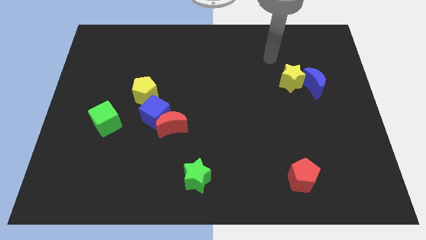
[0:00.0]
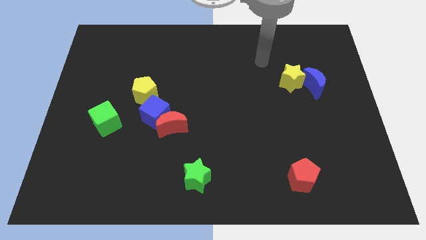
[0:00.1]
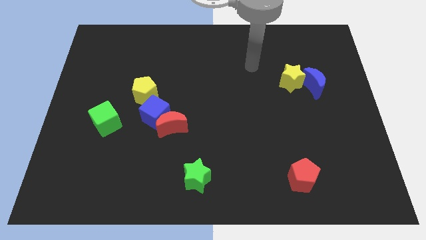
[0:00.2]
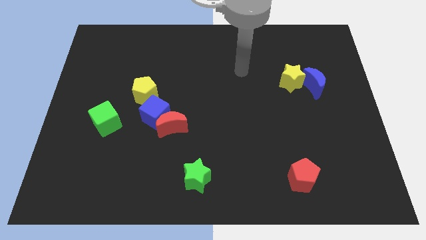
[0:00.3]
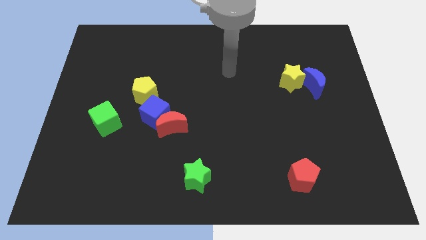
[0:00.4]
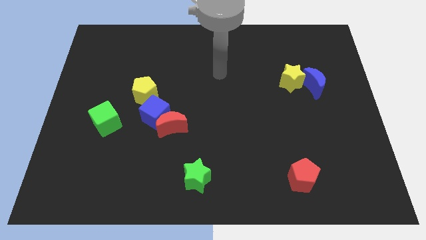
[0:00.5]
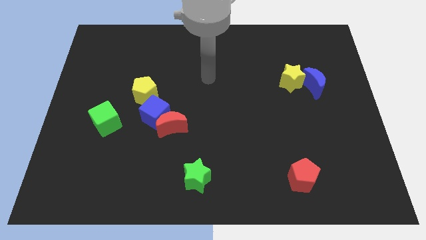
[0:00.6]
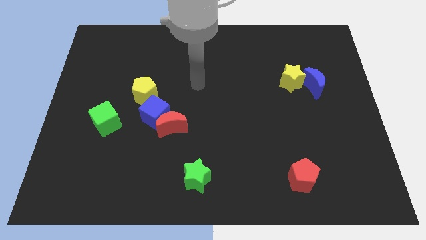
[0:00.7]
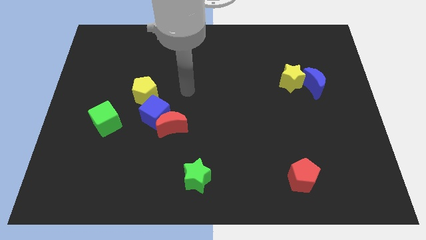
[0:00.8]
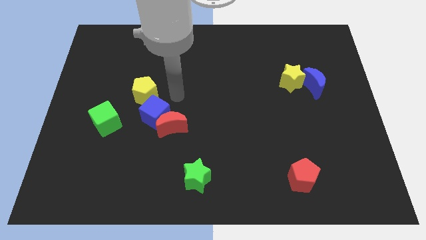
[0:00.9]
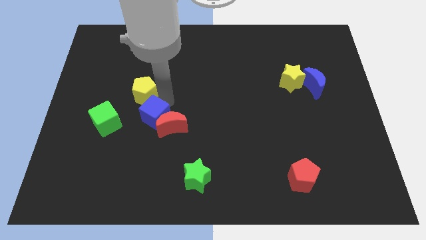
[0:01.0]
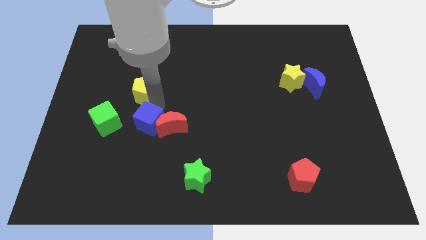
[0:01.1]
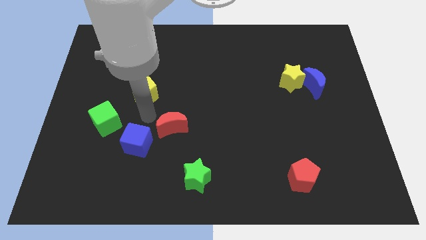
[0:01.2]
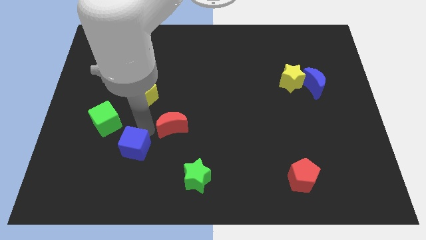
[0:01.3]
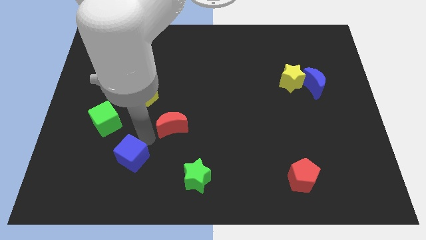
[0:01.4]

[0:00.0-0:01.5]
separate the red moon from the blue cube

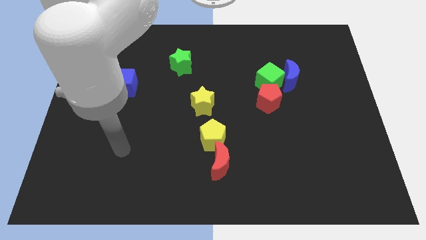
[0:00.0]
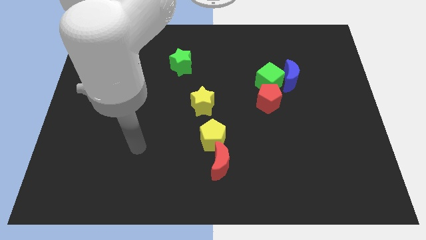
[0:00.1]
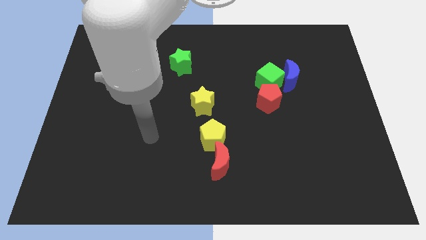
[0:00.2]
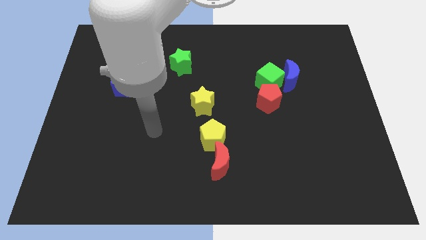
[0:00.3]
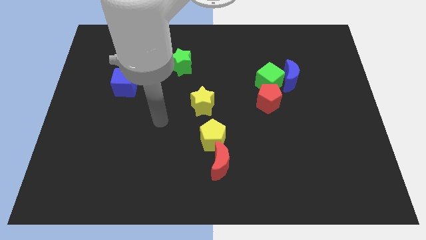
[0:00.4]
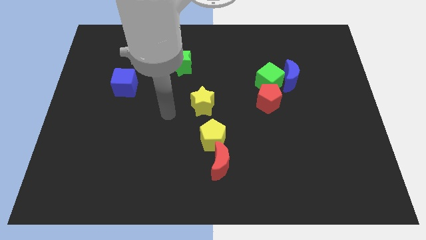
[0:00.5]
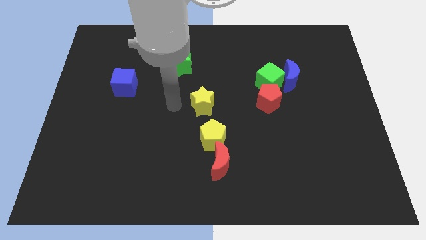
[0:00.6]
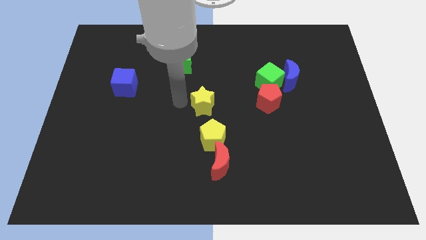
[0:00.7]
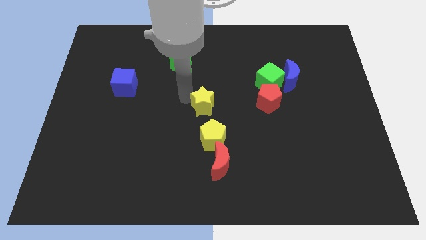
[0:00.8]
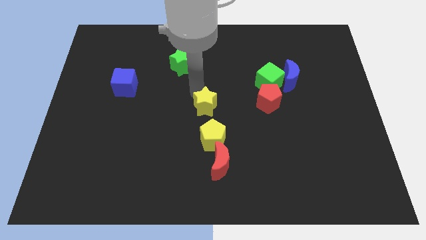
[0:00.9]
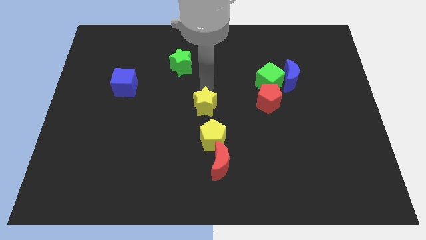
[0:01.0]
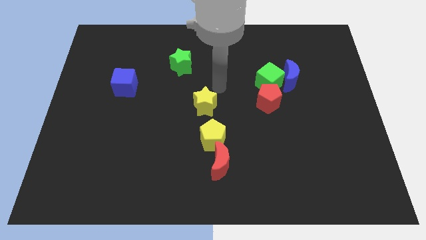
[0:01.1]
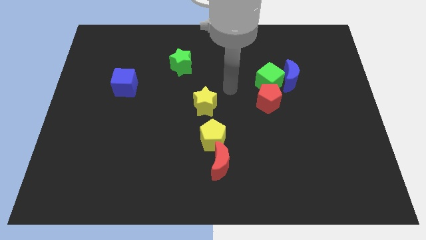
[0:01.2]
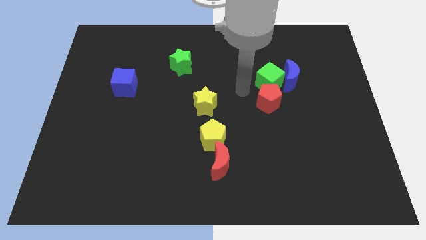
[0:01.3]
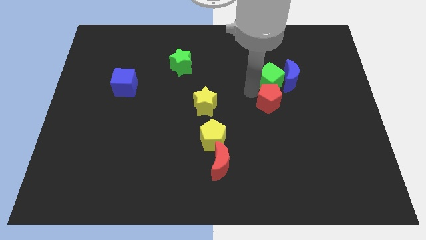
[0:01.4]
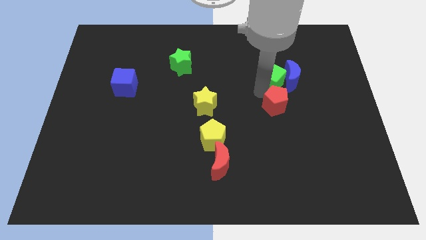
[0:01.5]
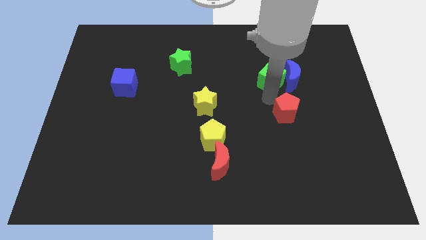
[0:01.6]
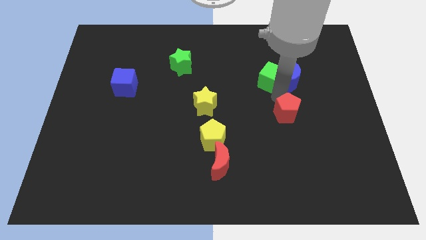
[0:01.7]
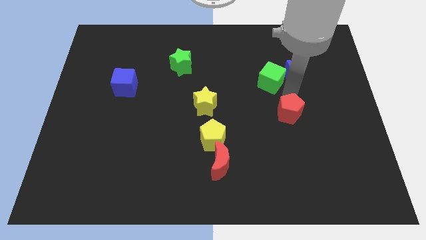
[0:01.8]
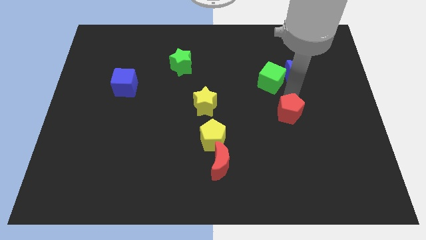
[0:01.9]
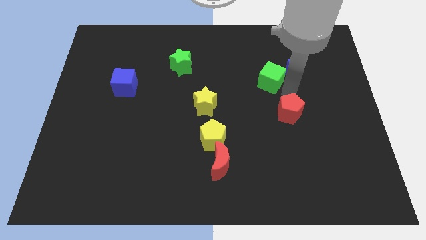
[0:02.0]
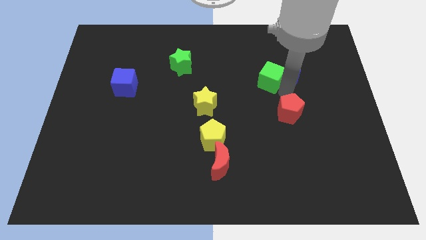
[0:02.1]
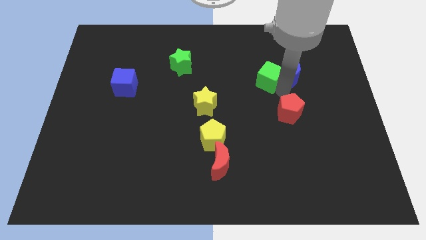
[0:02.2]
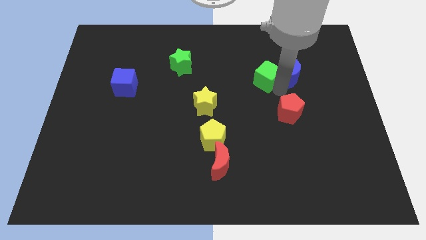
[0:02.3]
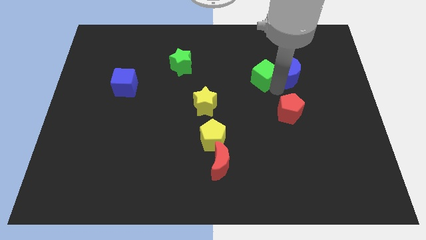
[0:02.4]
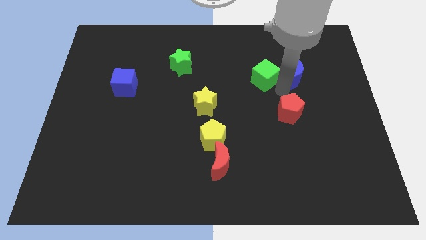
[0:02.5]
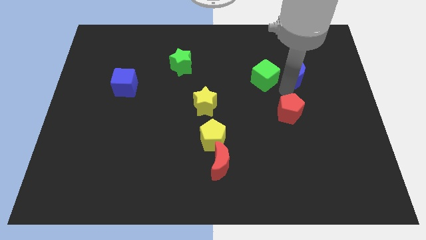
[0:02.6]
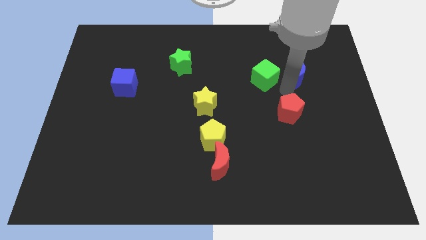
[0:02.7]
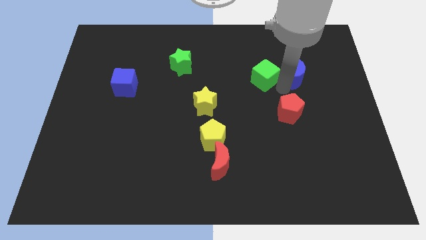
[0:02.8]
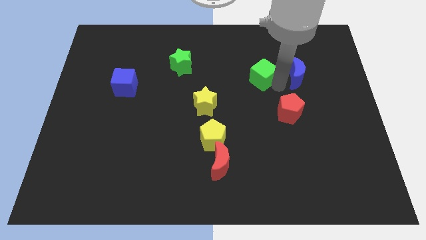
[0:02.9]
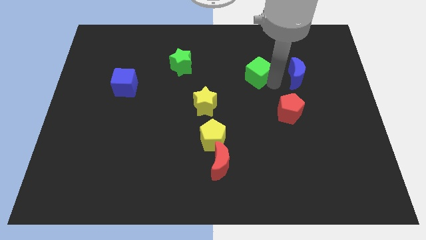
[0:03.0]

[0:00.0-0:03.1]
pull the green cube apart from the blue moon and red pentagon

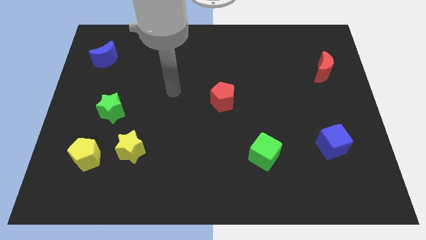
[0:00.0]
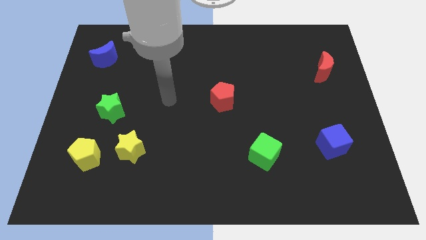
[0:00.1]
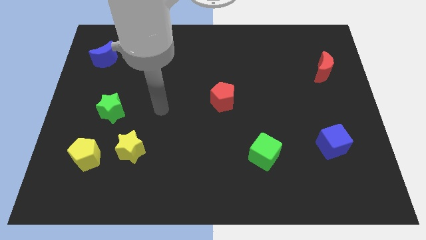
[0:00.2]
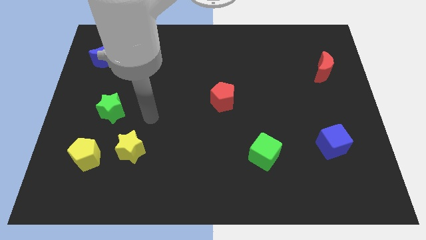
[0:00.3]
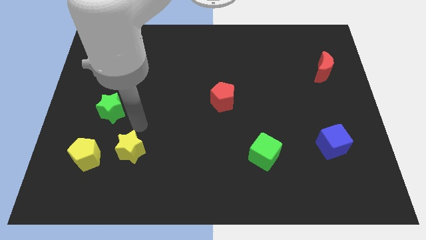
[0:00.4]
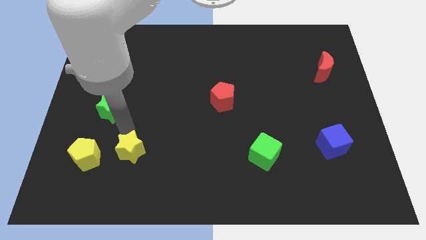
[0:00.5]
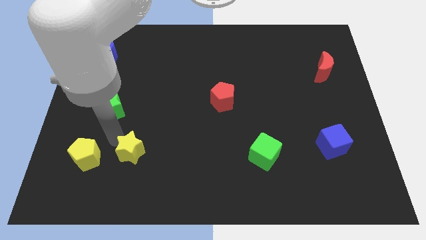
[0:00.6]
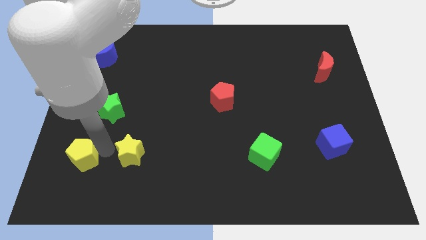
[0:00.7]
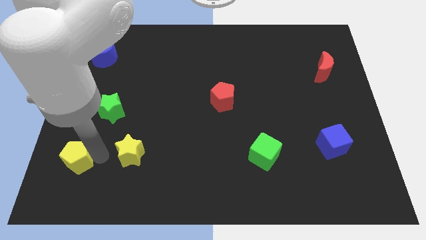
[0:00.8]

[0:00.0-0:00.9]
move the yellow star away from the yellow pentagon

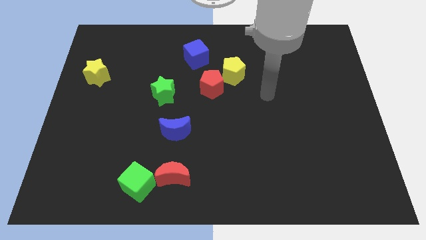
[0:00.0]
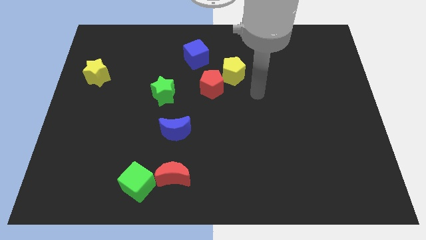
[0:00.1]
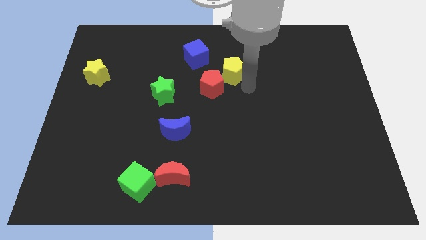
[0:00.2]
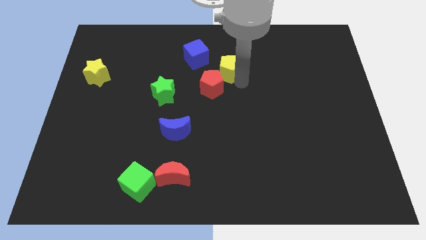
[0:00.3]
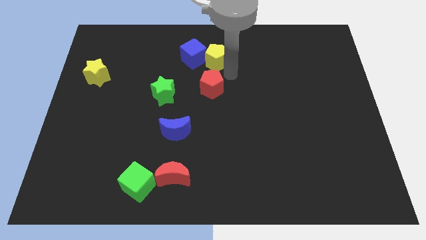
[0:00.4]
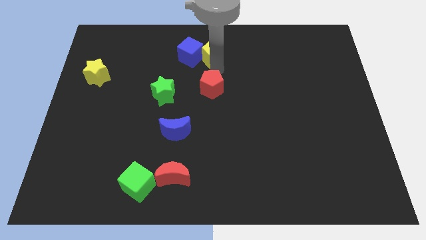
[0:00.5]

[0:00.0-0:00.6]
move the red pentagon away from the yellow pentagon

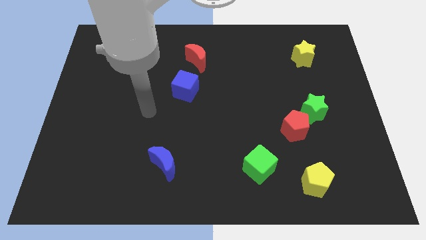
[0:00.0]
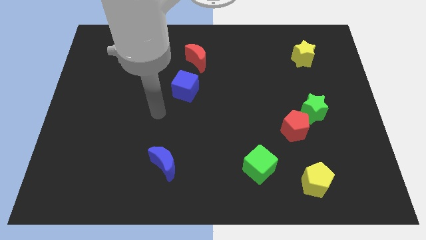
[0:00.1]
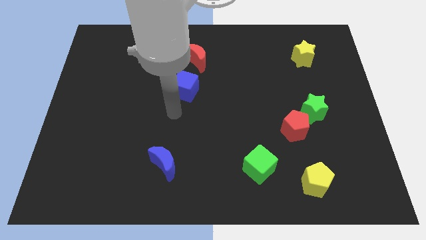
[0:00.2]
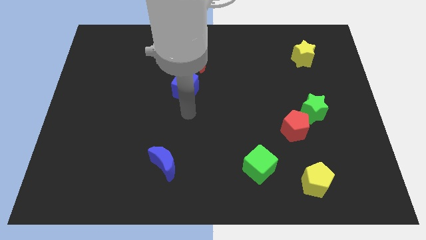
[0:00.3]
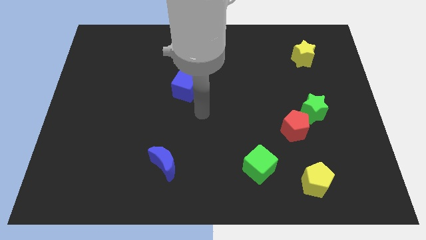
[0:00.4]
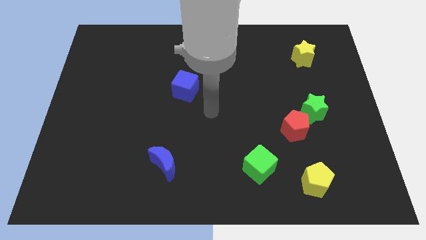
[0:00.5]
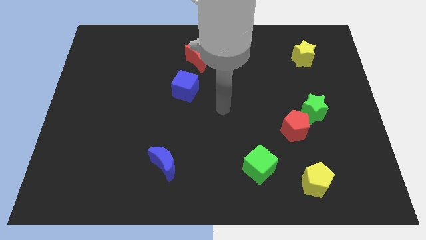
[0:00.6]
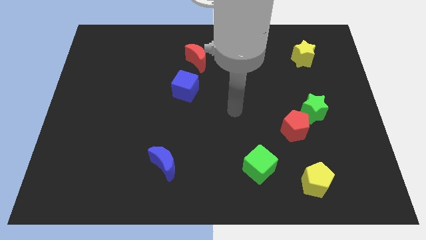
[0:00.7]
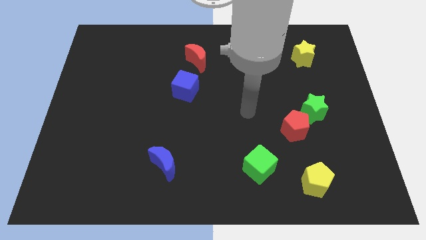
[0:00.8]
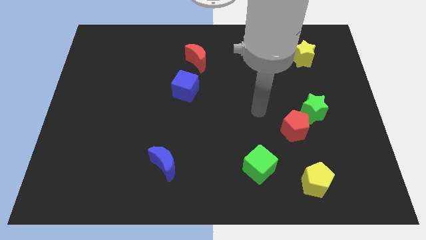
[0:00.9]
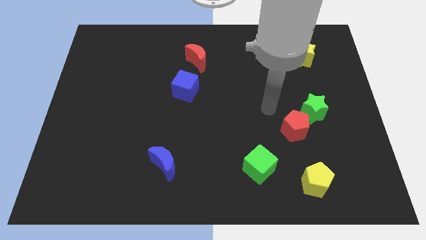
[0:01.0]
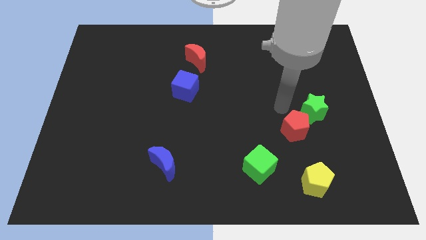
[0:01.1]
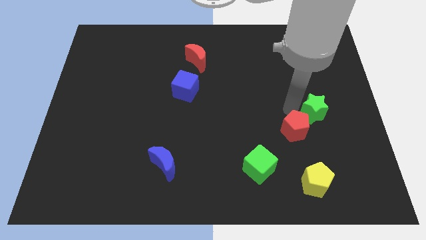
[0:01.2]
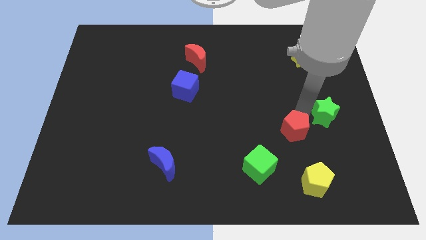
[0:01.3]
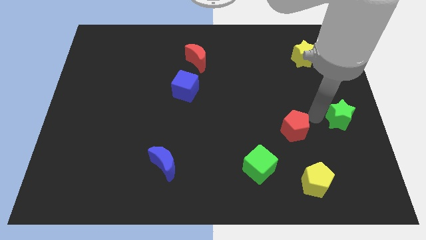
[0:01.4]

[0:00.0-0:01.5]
move the red pentagon away from the green star

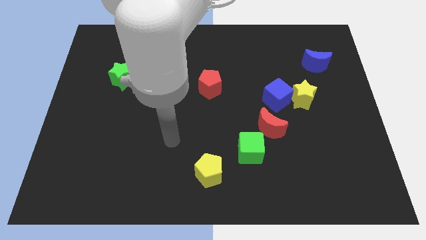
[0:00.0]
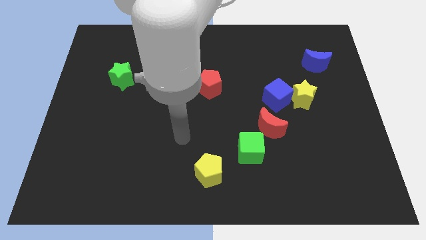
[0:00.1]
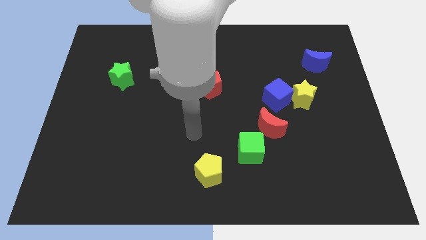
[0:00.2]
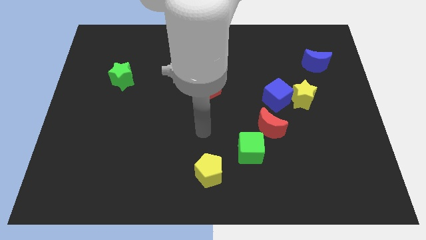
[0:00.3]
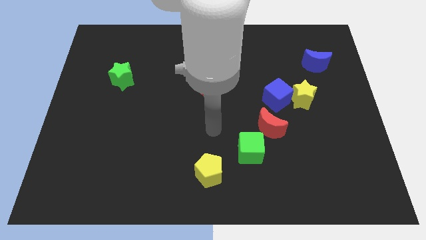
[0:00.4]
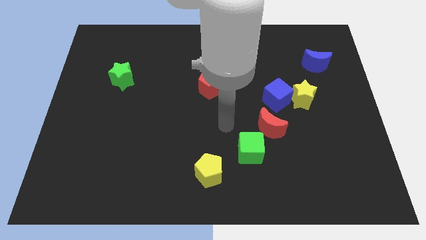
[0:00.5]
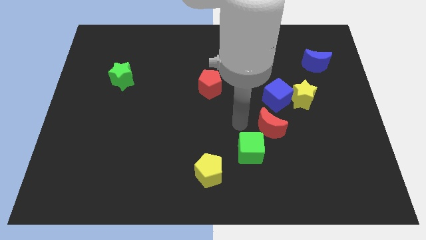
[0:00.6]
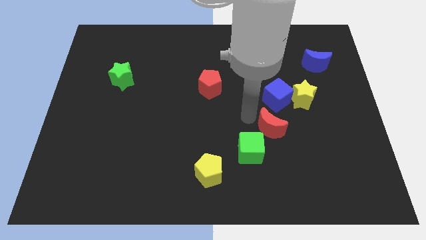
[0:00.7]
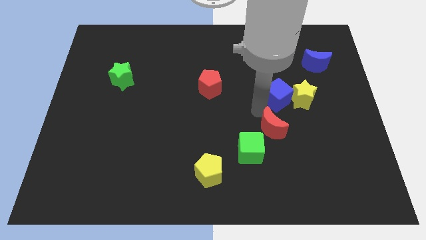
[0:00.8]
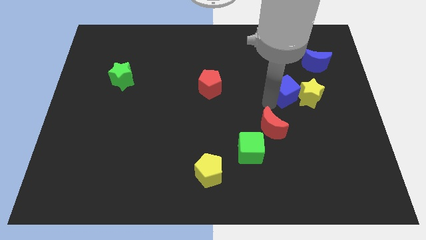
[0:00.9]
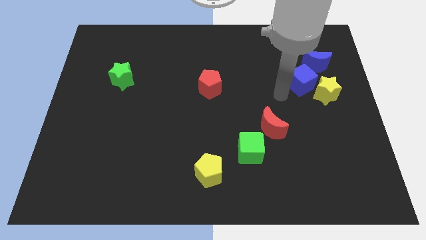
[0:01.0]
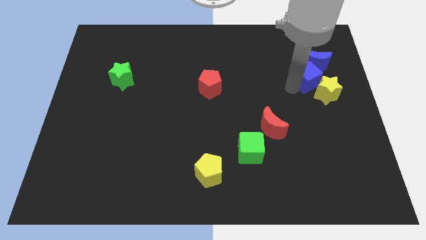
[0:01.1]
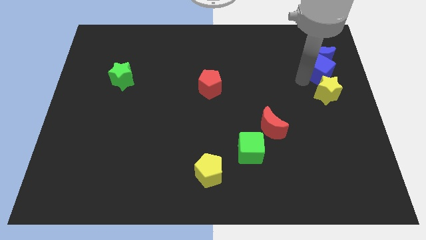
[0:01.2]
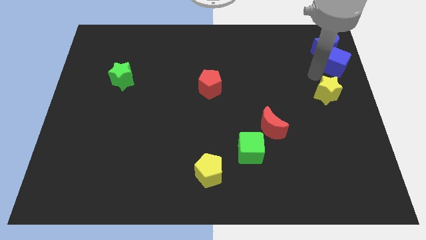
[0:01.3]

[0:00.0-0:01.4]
separate the yellow star from the blue cube

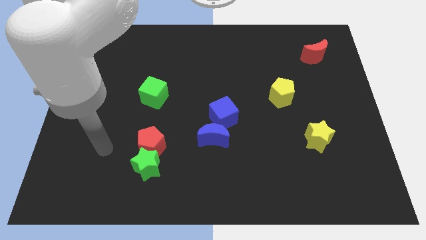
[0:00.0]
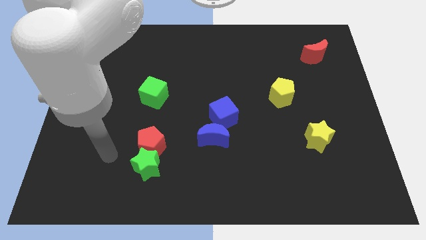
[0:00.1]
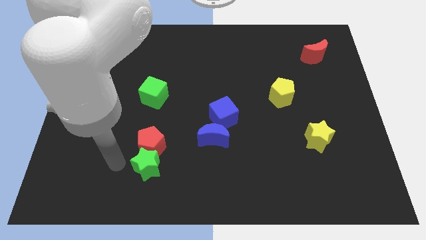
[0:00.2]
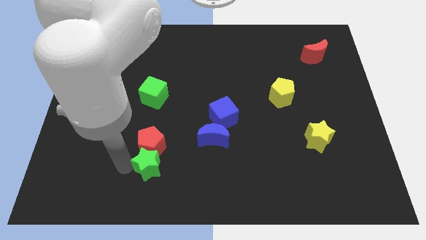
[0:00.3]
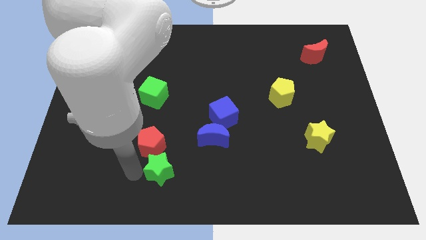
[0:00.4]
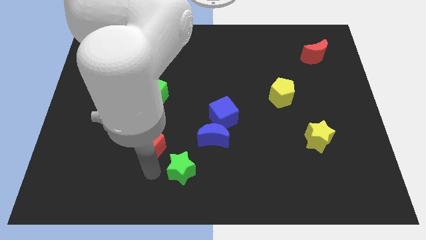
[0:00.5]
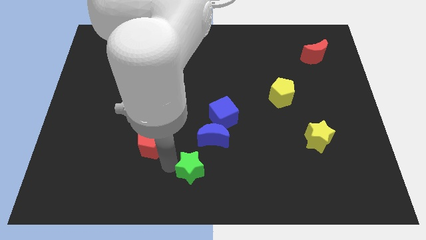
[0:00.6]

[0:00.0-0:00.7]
separate the red pentagon from the green star
